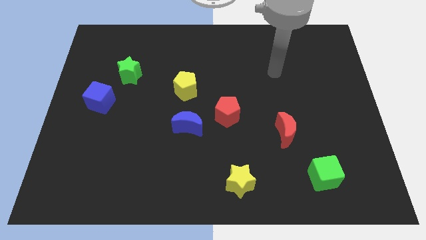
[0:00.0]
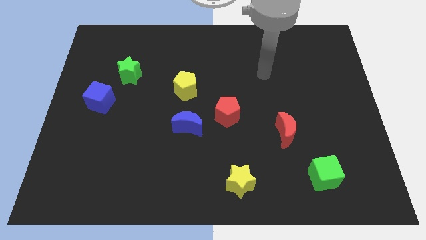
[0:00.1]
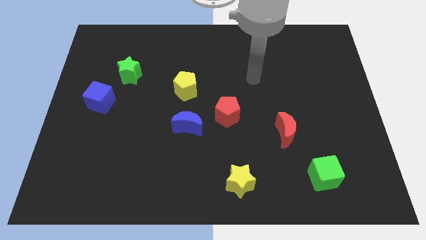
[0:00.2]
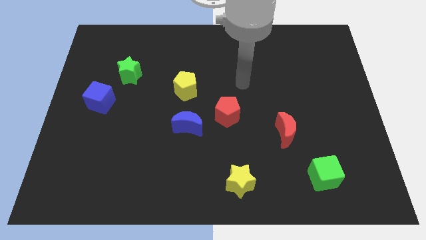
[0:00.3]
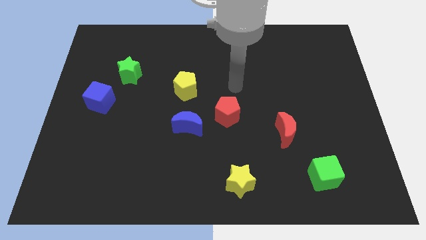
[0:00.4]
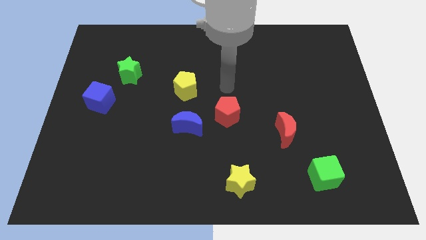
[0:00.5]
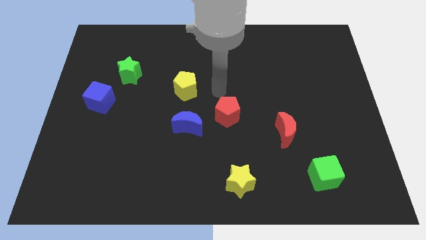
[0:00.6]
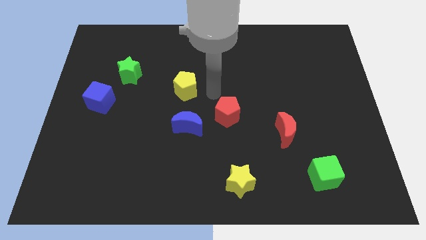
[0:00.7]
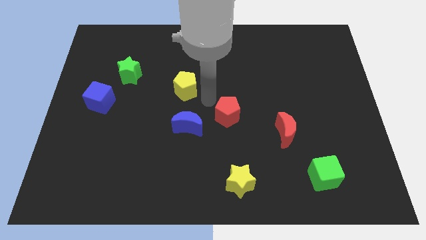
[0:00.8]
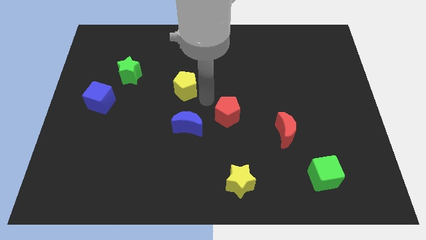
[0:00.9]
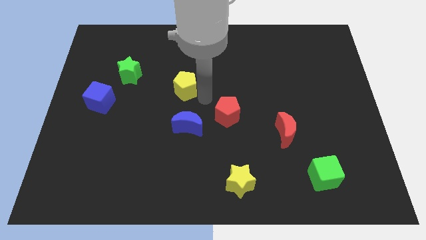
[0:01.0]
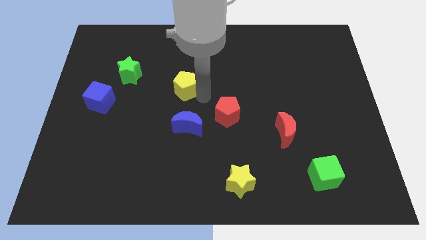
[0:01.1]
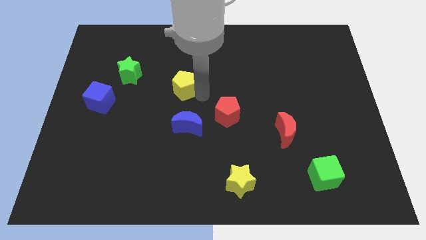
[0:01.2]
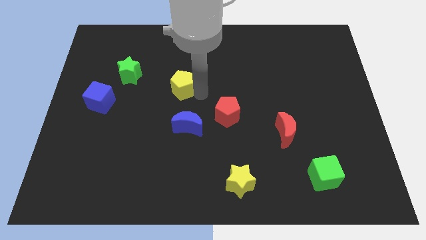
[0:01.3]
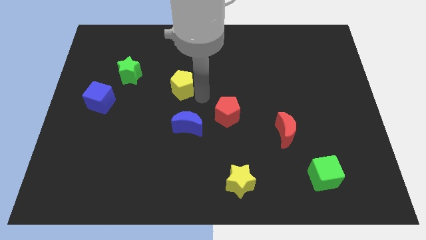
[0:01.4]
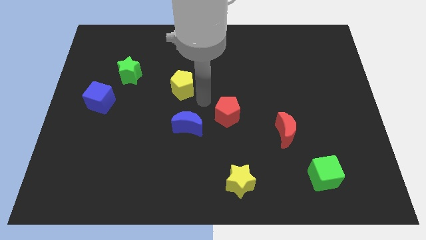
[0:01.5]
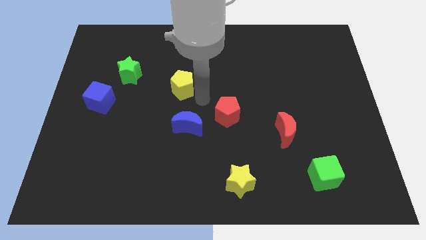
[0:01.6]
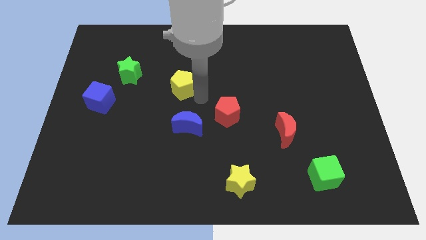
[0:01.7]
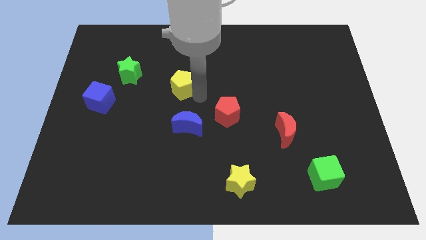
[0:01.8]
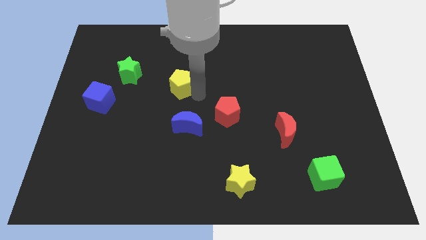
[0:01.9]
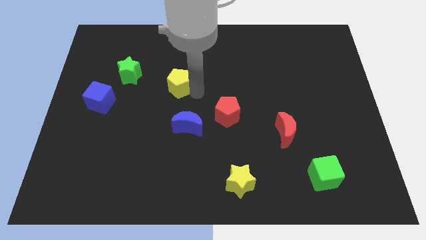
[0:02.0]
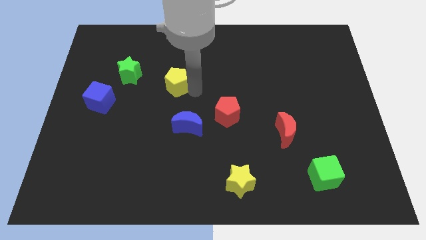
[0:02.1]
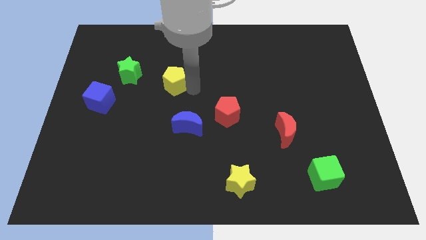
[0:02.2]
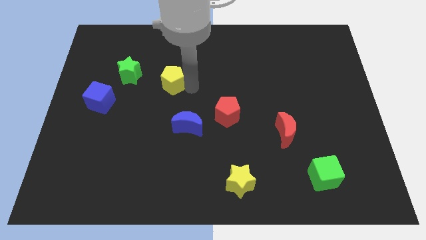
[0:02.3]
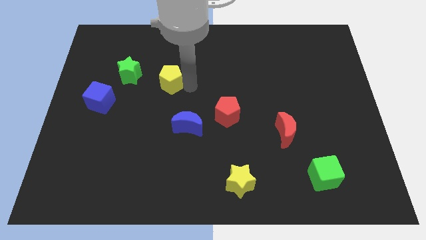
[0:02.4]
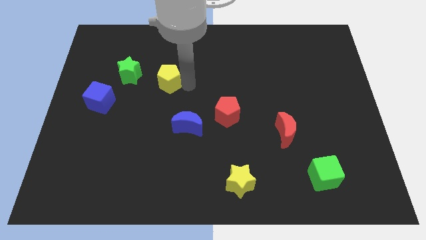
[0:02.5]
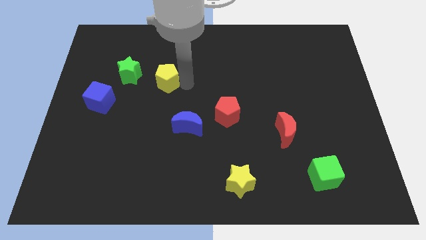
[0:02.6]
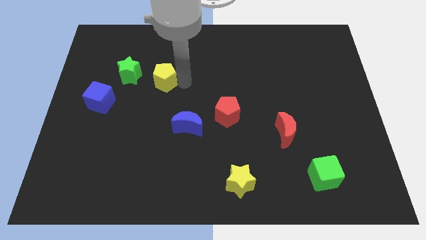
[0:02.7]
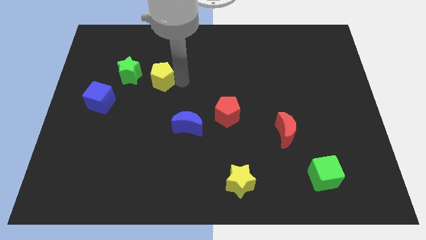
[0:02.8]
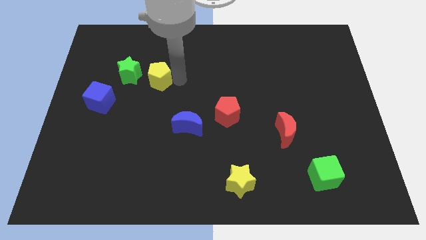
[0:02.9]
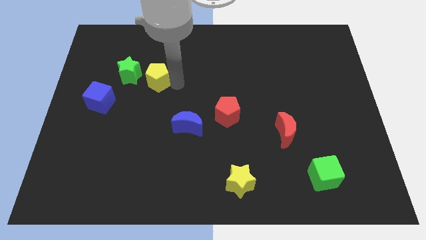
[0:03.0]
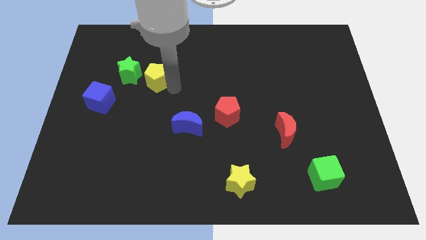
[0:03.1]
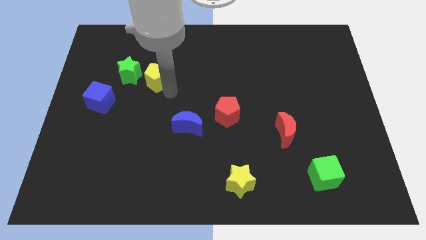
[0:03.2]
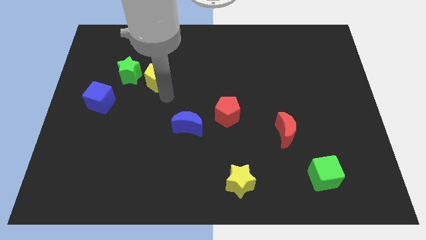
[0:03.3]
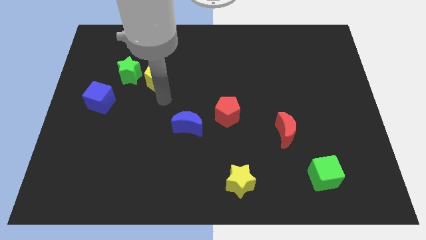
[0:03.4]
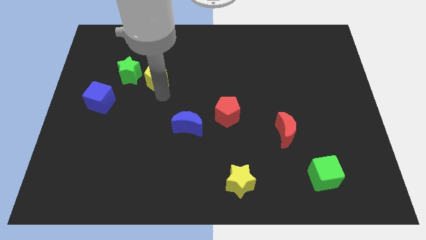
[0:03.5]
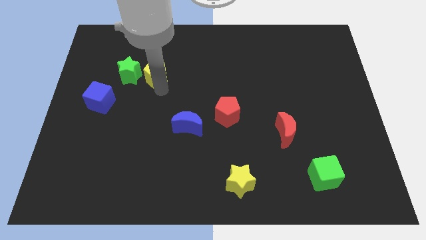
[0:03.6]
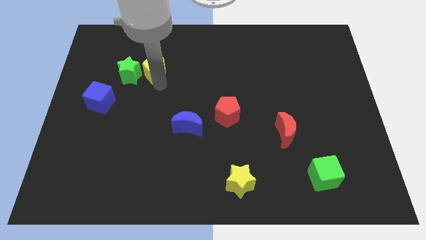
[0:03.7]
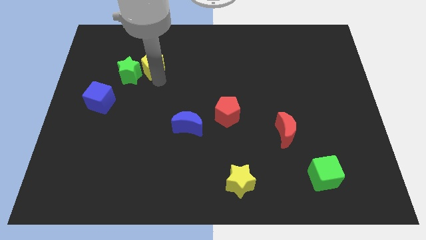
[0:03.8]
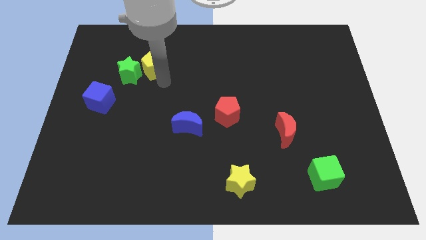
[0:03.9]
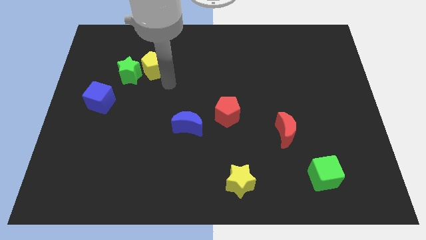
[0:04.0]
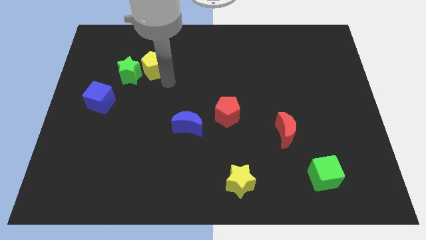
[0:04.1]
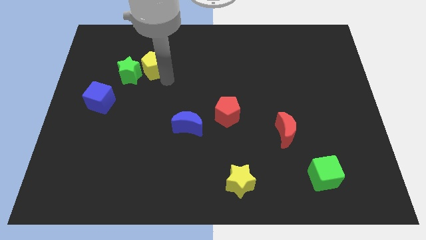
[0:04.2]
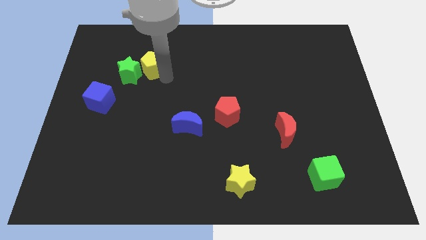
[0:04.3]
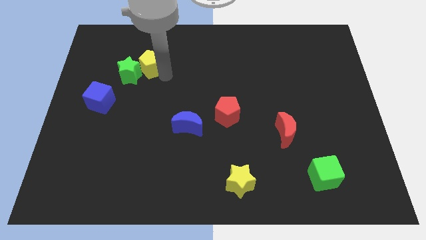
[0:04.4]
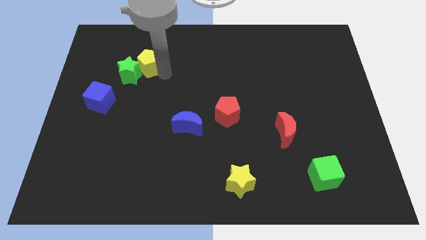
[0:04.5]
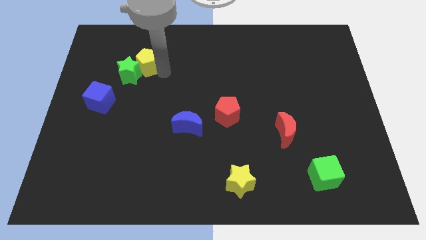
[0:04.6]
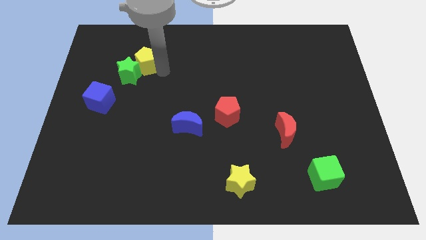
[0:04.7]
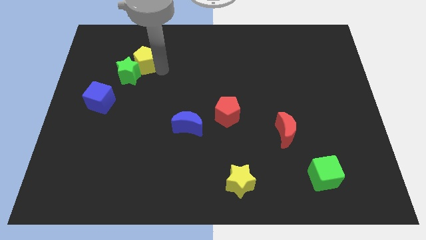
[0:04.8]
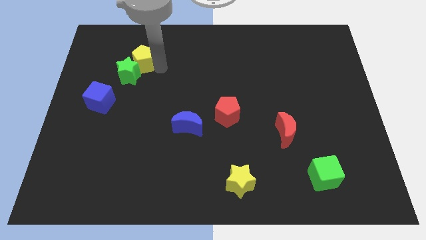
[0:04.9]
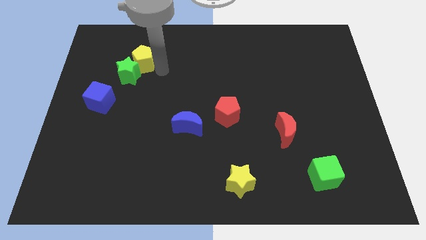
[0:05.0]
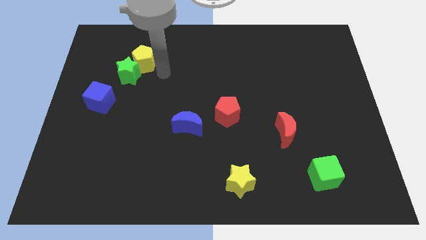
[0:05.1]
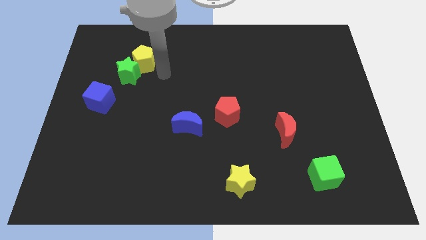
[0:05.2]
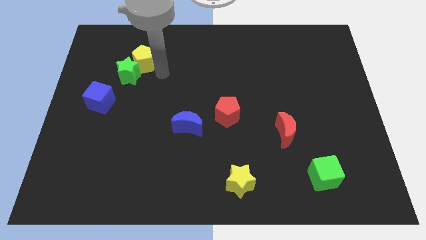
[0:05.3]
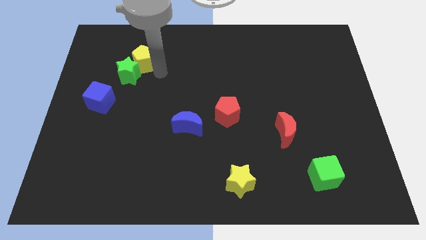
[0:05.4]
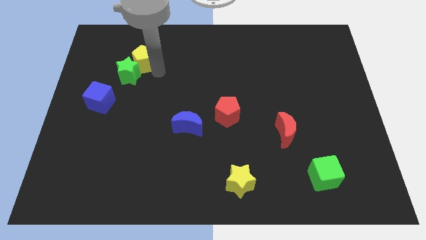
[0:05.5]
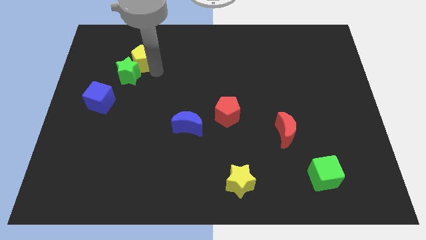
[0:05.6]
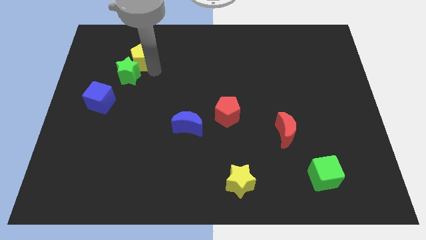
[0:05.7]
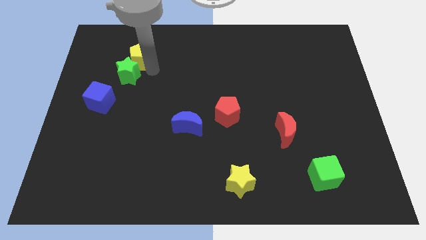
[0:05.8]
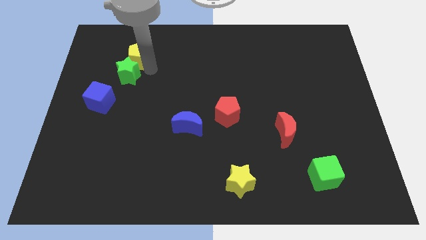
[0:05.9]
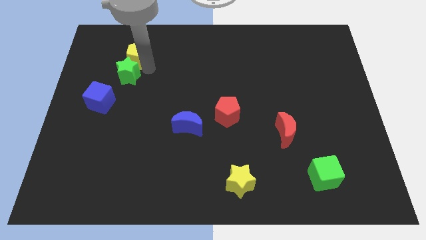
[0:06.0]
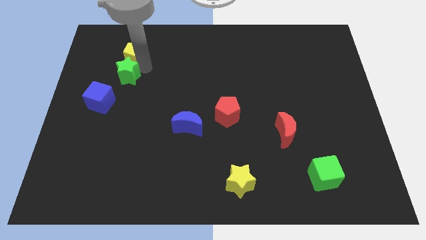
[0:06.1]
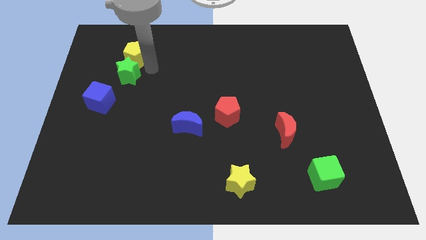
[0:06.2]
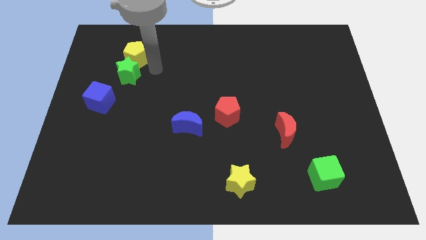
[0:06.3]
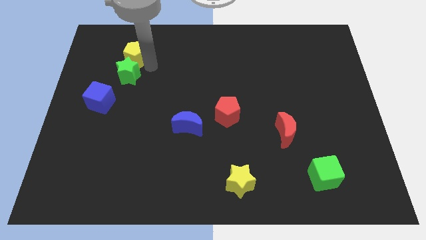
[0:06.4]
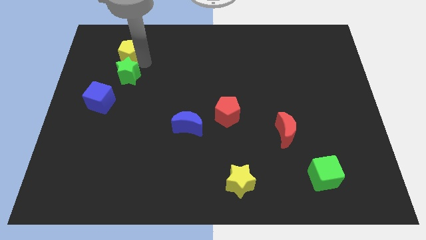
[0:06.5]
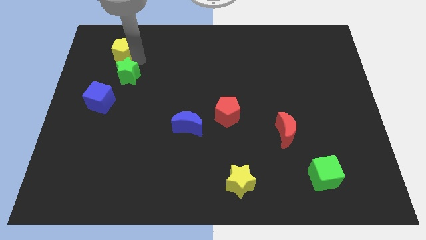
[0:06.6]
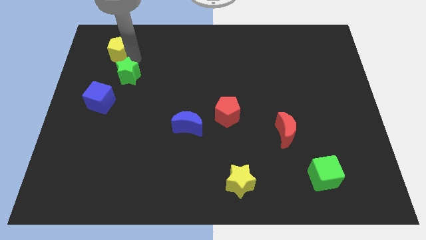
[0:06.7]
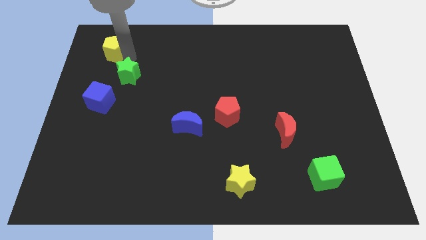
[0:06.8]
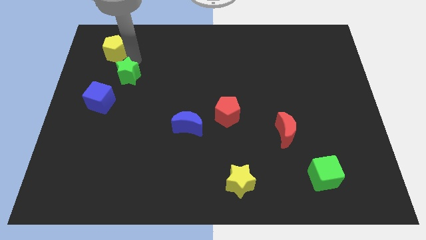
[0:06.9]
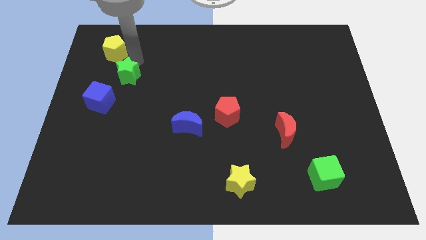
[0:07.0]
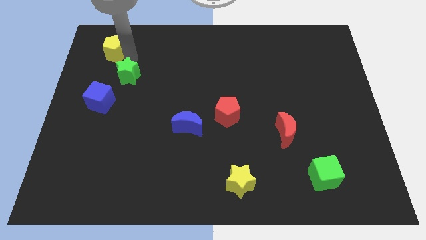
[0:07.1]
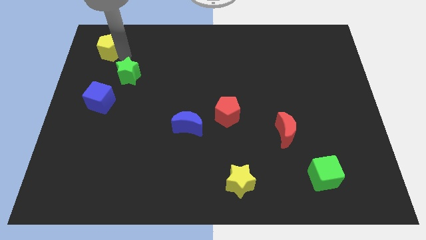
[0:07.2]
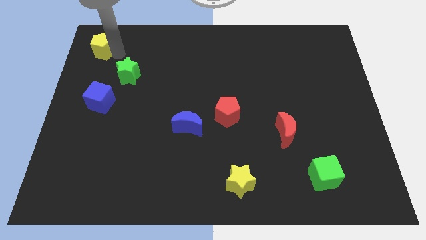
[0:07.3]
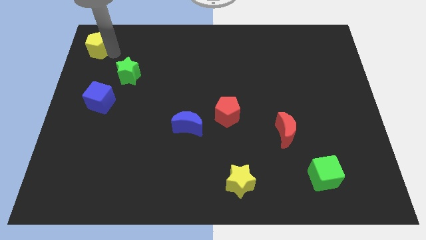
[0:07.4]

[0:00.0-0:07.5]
push the yellow pentagon to the top left of the board
